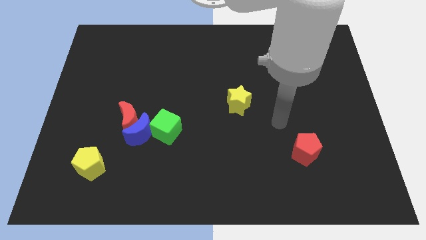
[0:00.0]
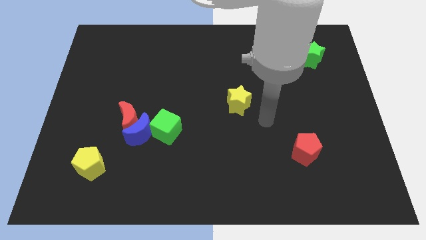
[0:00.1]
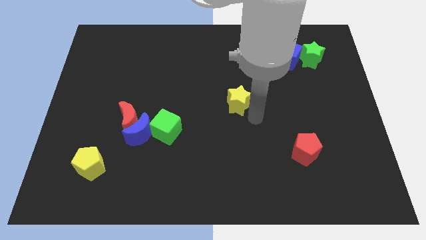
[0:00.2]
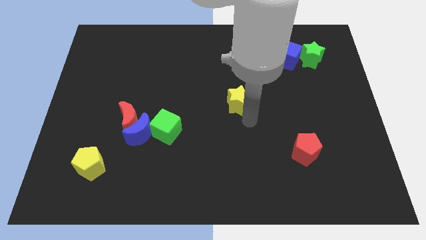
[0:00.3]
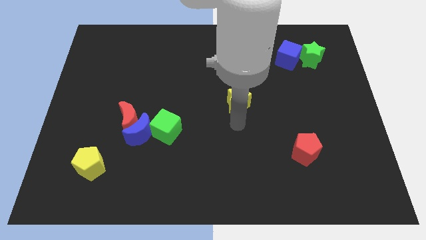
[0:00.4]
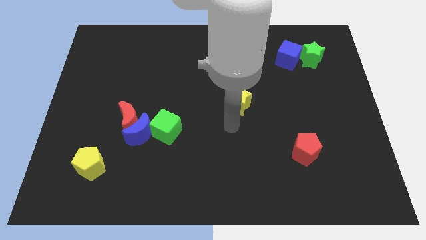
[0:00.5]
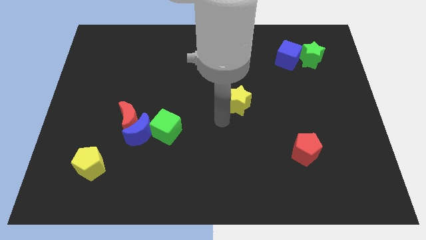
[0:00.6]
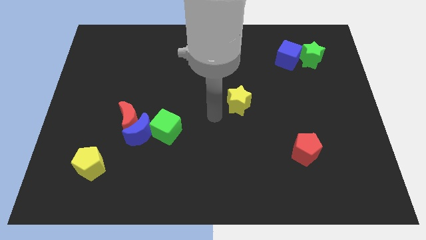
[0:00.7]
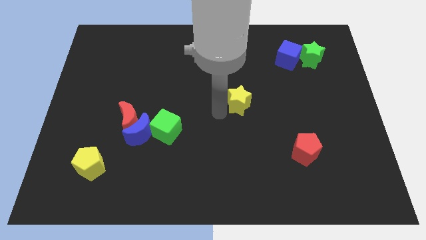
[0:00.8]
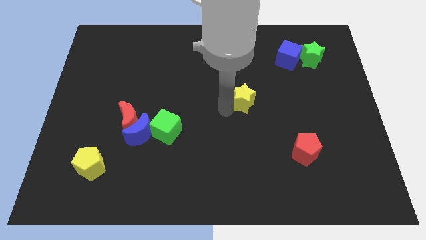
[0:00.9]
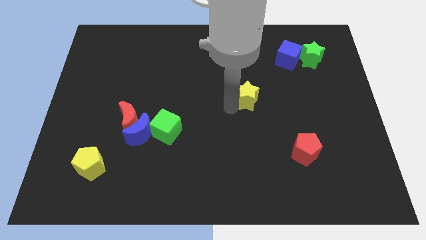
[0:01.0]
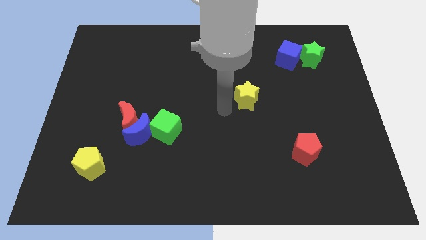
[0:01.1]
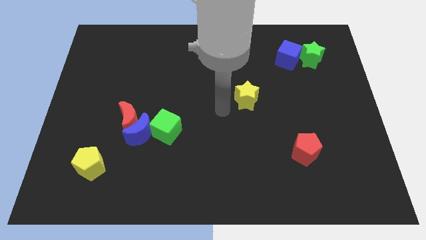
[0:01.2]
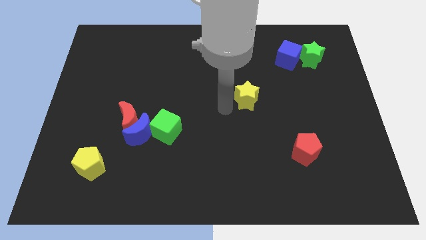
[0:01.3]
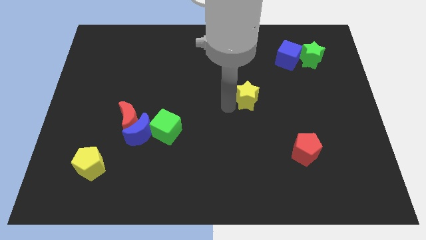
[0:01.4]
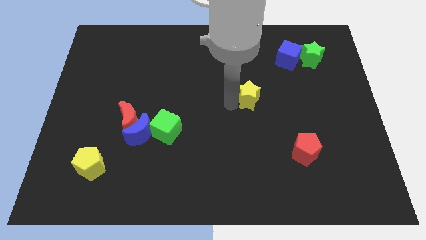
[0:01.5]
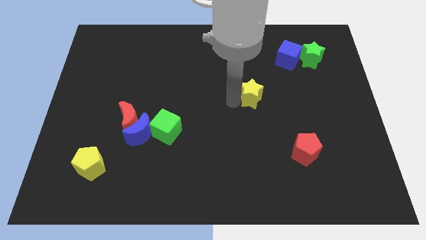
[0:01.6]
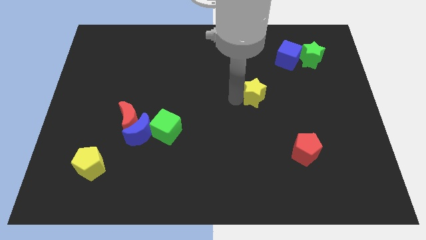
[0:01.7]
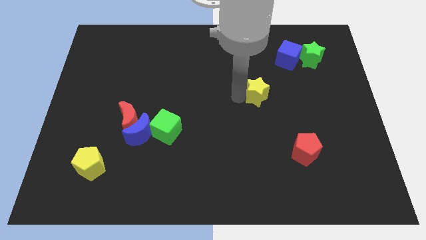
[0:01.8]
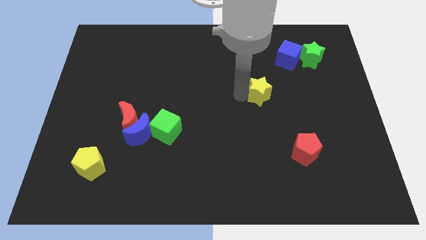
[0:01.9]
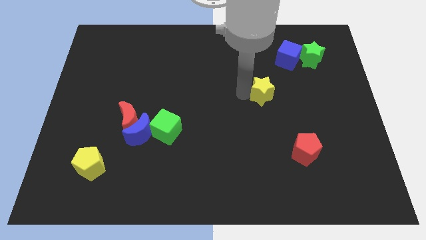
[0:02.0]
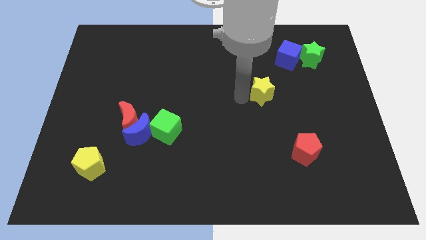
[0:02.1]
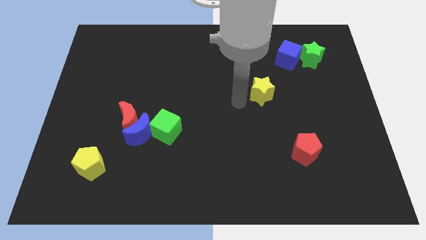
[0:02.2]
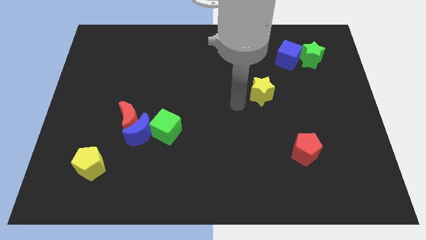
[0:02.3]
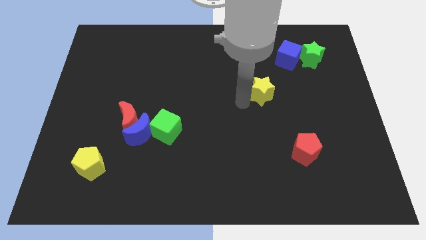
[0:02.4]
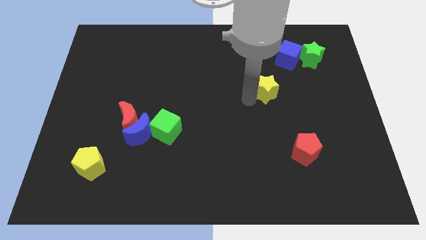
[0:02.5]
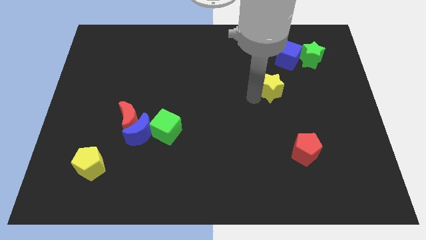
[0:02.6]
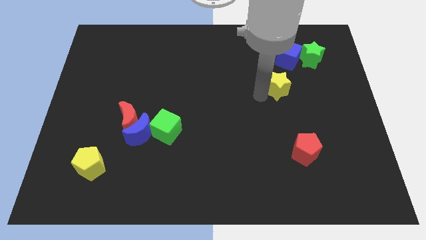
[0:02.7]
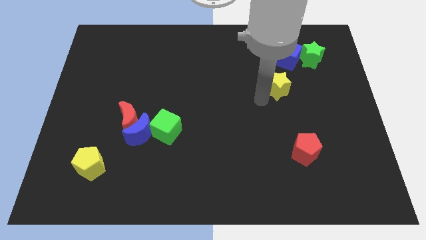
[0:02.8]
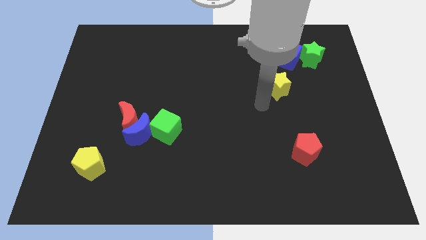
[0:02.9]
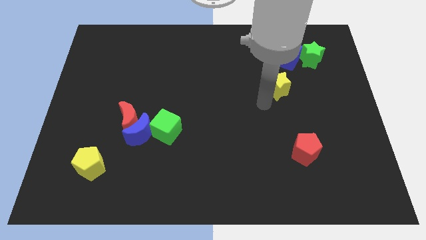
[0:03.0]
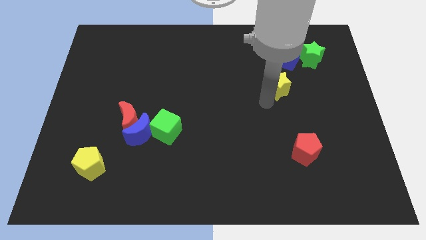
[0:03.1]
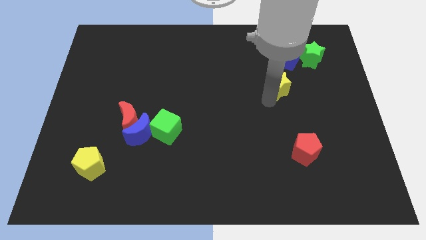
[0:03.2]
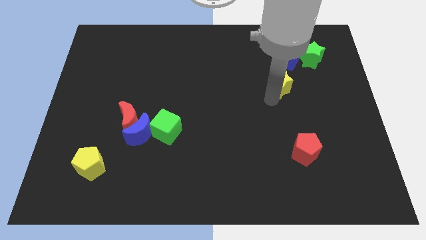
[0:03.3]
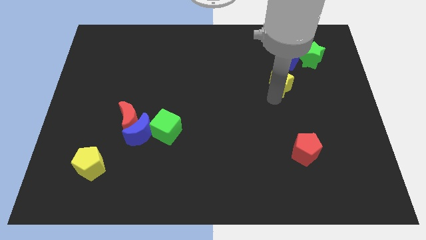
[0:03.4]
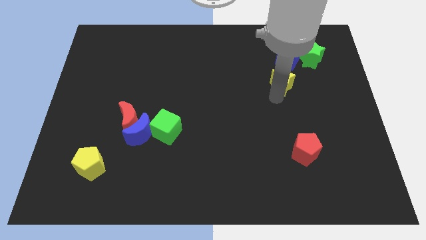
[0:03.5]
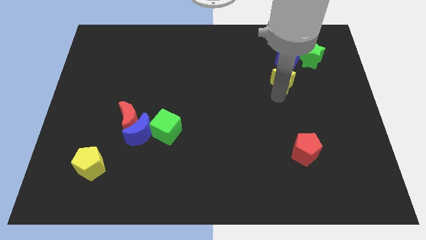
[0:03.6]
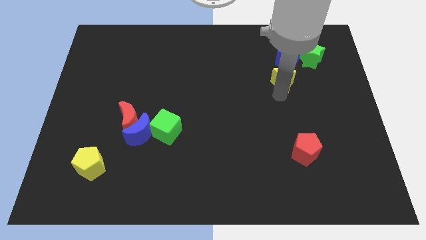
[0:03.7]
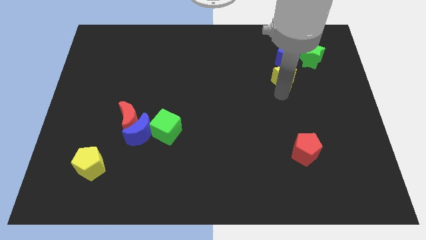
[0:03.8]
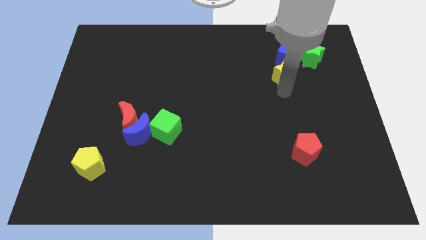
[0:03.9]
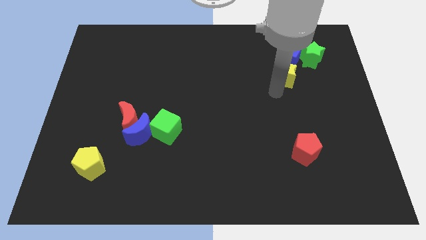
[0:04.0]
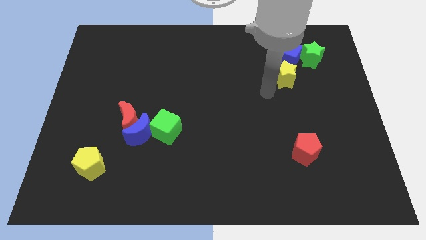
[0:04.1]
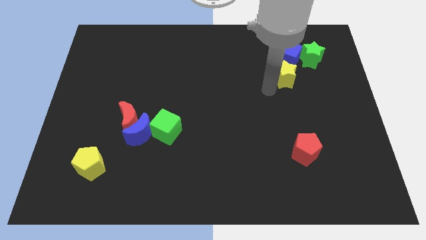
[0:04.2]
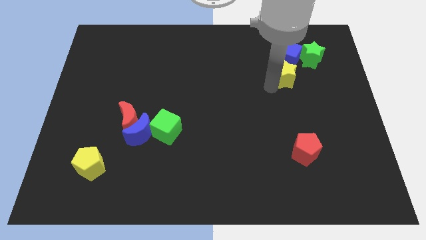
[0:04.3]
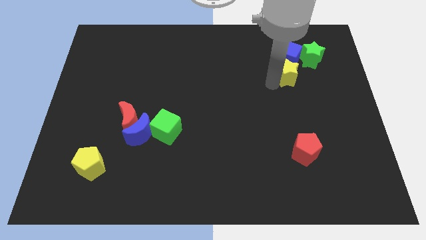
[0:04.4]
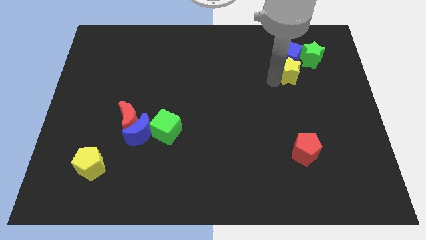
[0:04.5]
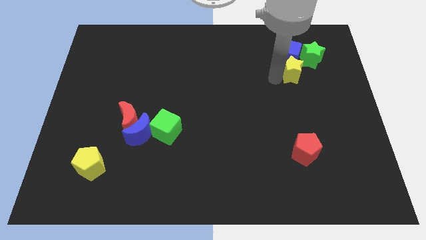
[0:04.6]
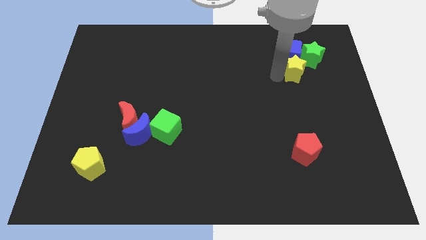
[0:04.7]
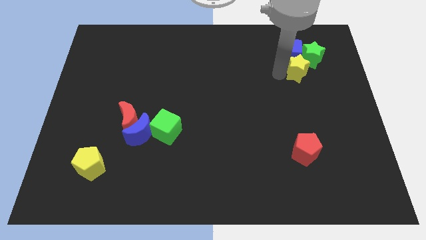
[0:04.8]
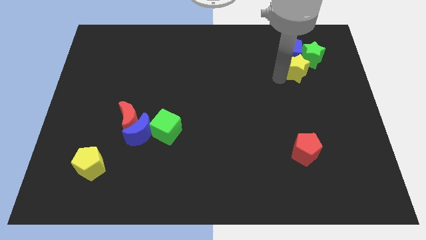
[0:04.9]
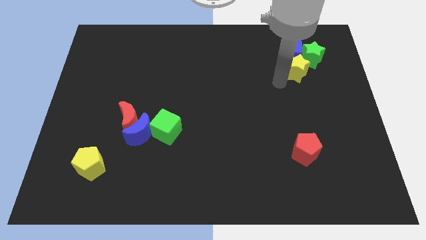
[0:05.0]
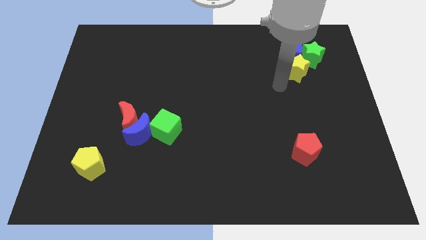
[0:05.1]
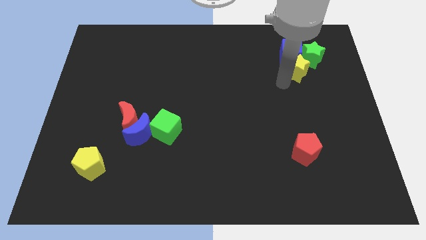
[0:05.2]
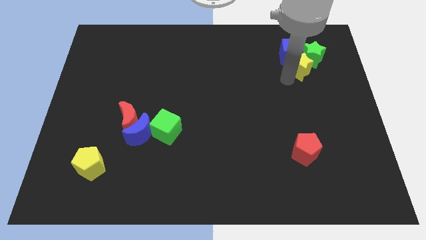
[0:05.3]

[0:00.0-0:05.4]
move the yellow star close to the green star

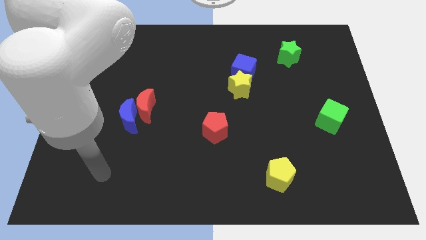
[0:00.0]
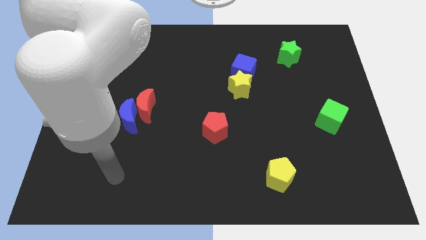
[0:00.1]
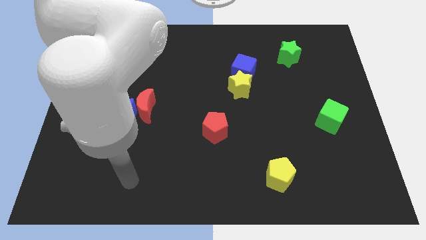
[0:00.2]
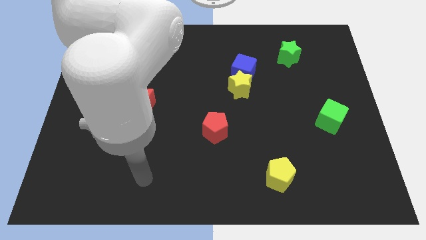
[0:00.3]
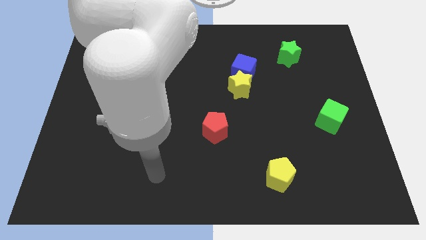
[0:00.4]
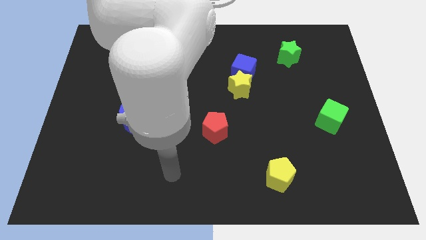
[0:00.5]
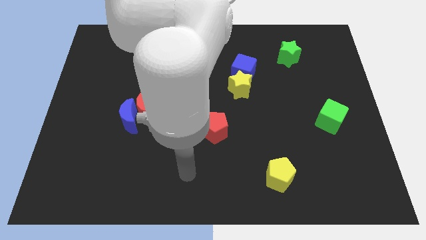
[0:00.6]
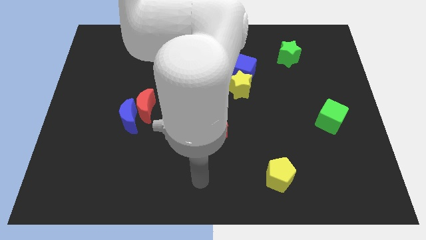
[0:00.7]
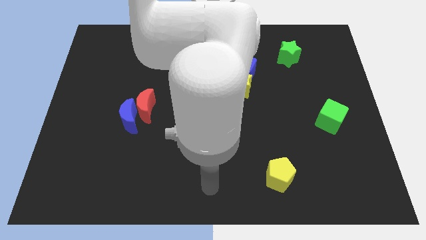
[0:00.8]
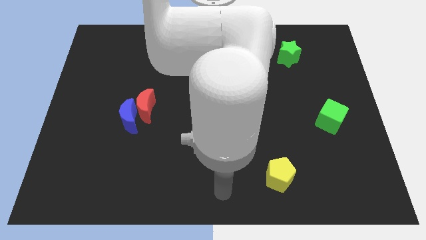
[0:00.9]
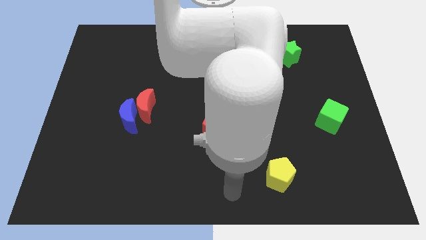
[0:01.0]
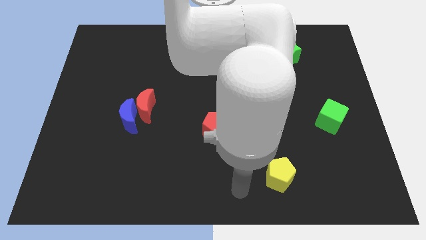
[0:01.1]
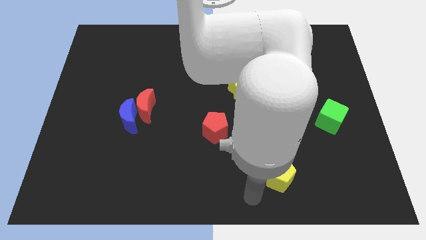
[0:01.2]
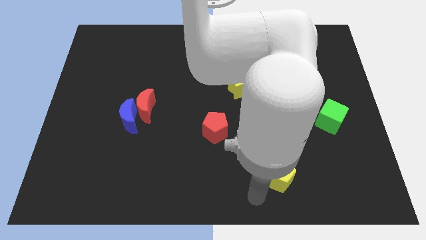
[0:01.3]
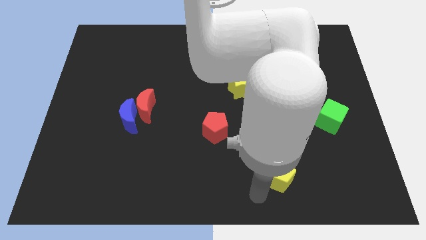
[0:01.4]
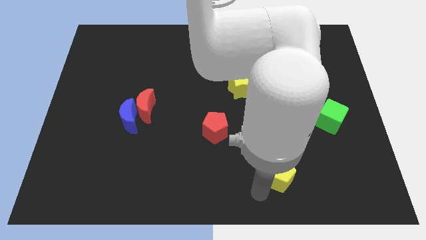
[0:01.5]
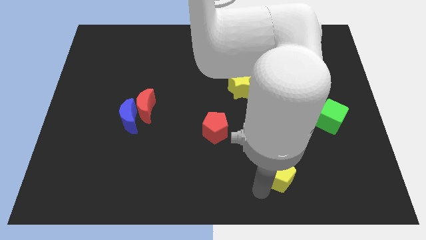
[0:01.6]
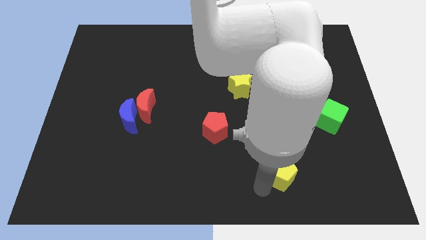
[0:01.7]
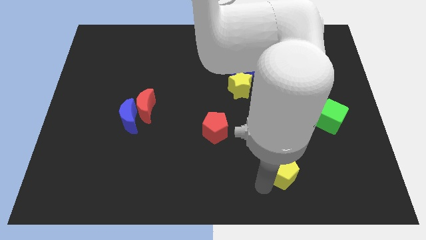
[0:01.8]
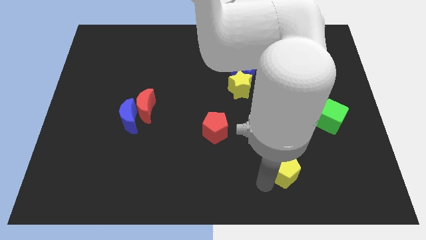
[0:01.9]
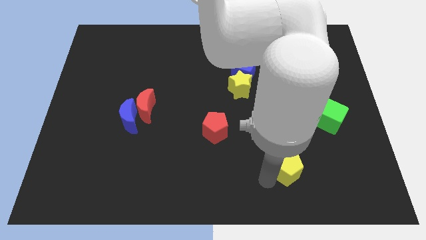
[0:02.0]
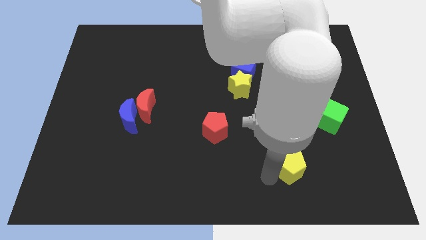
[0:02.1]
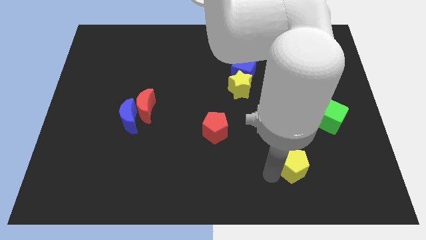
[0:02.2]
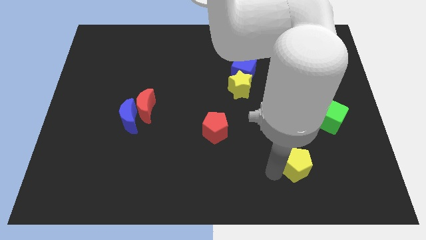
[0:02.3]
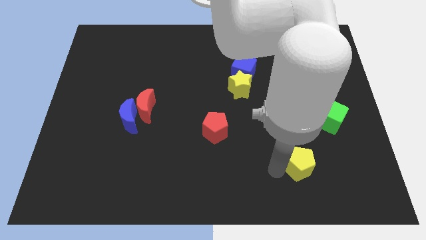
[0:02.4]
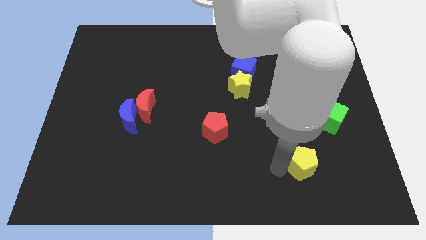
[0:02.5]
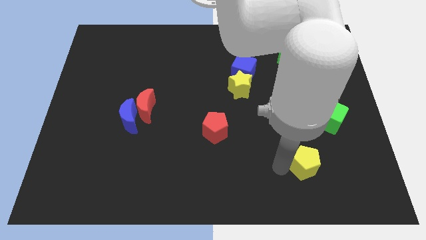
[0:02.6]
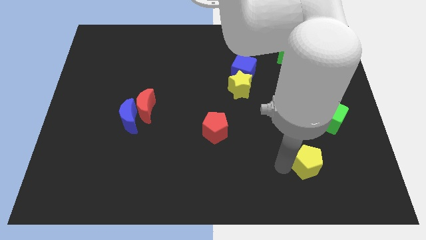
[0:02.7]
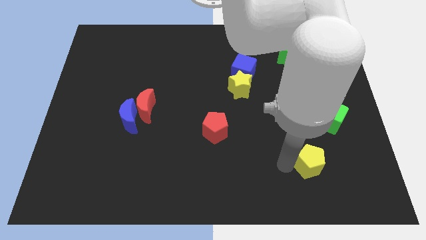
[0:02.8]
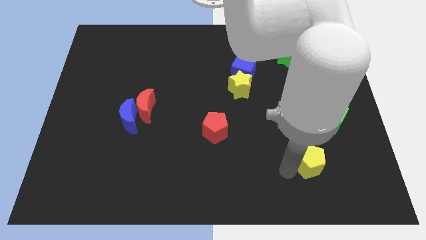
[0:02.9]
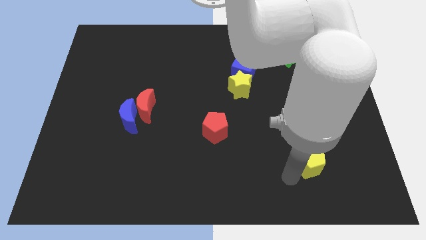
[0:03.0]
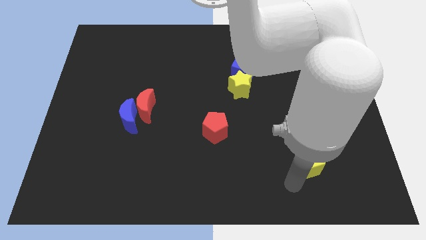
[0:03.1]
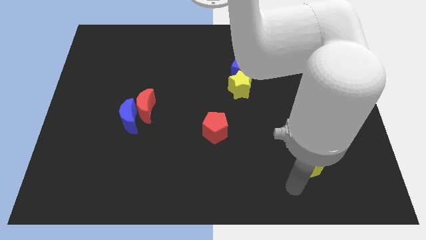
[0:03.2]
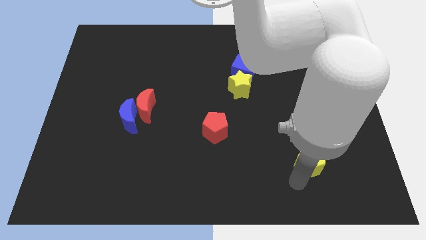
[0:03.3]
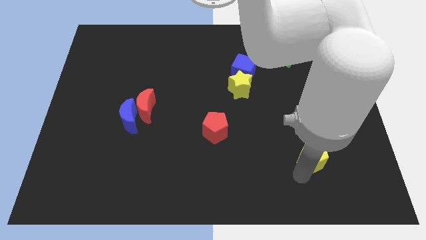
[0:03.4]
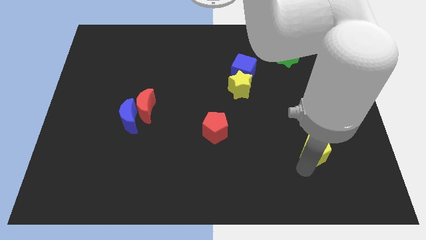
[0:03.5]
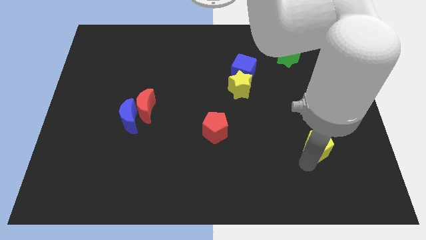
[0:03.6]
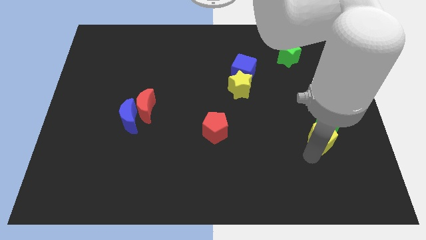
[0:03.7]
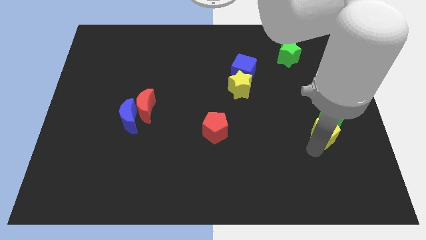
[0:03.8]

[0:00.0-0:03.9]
push the yellow pentagon to the green cube
